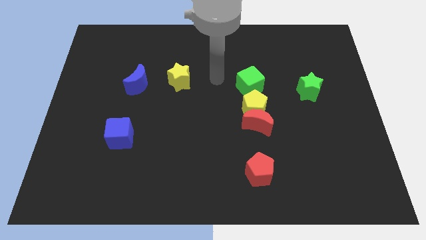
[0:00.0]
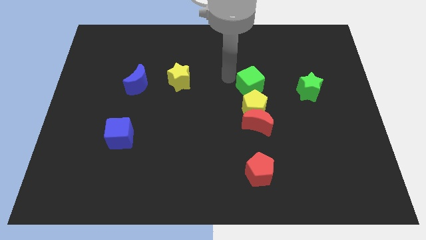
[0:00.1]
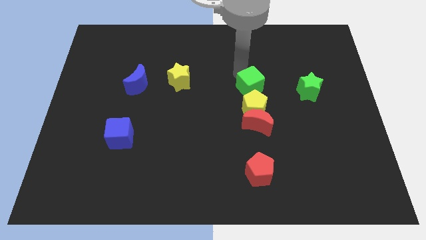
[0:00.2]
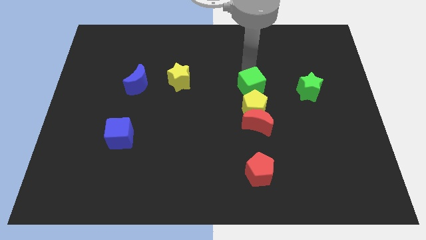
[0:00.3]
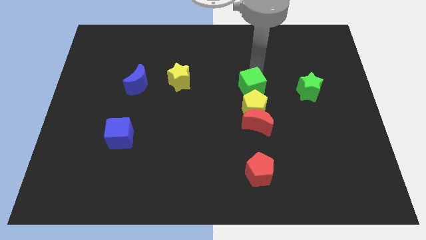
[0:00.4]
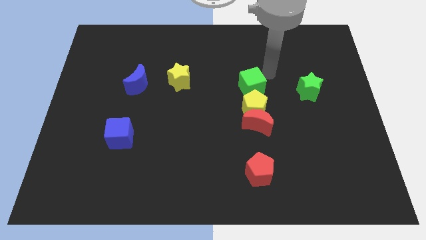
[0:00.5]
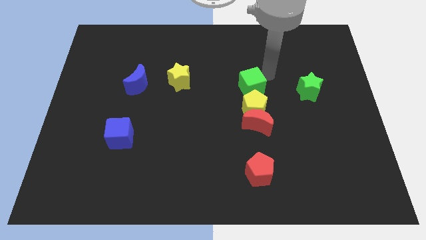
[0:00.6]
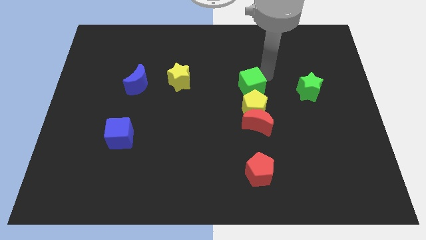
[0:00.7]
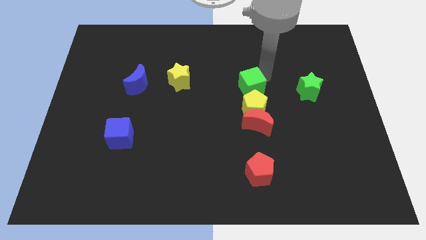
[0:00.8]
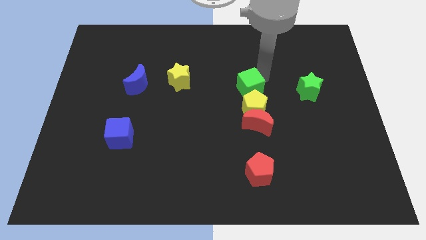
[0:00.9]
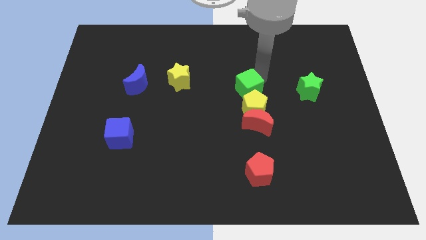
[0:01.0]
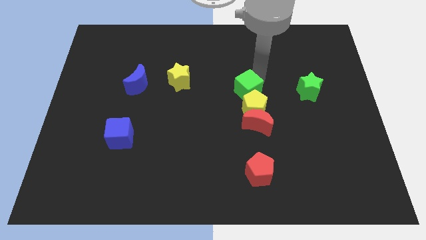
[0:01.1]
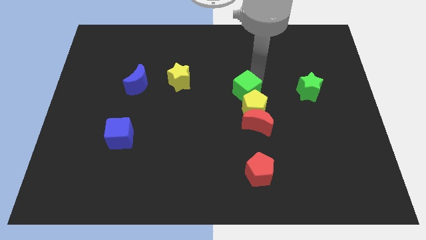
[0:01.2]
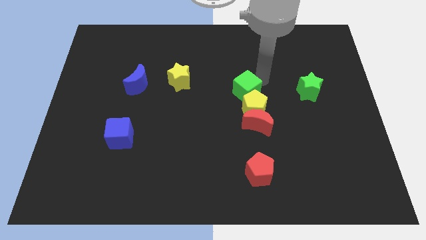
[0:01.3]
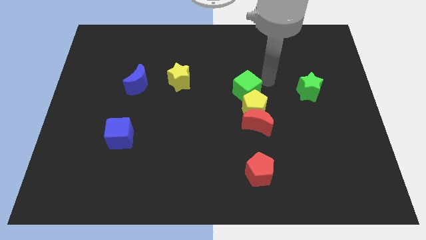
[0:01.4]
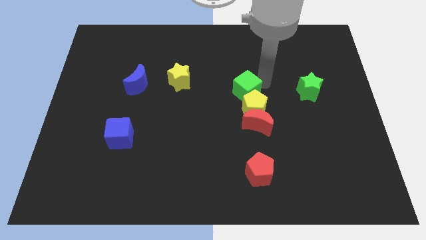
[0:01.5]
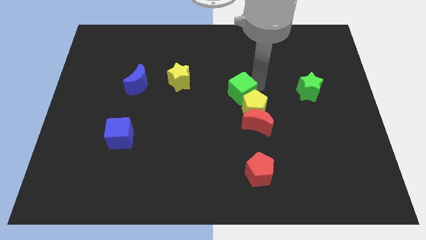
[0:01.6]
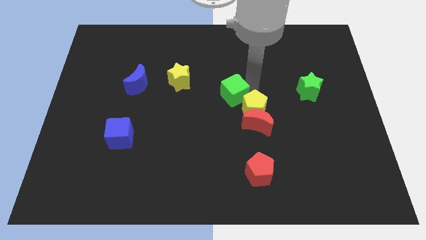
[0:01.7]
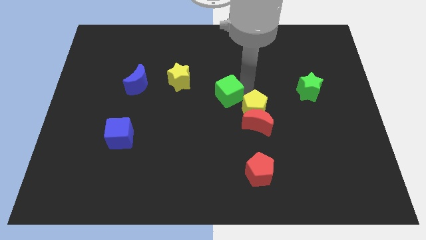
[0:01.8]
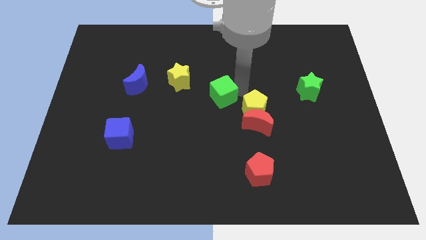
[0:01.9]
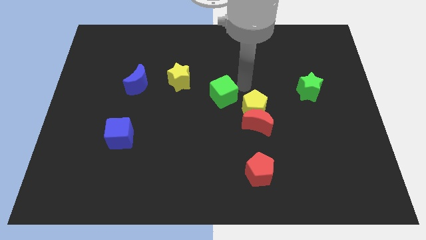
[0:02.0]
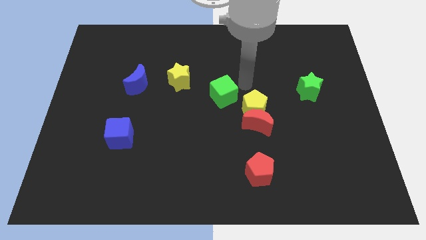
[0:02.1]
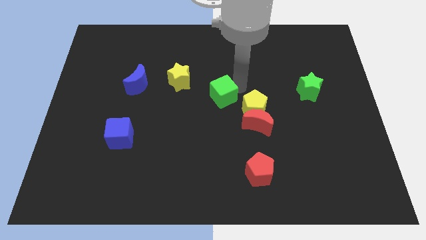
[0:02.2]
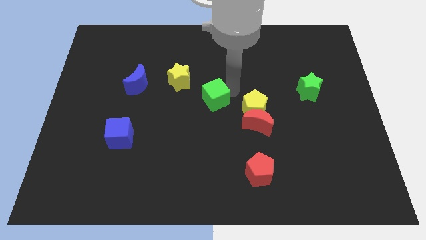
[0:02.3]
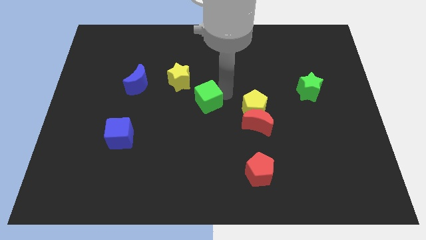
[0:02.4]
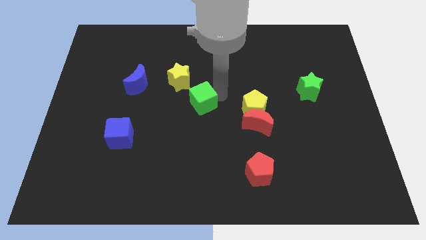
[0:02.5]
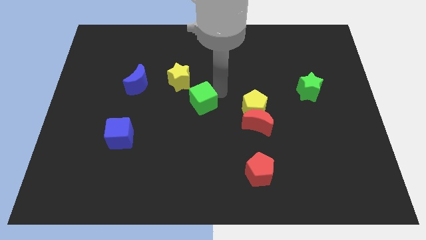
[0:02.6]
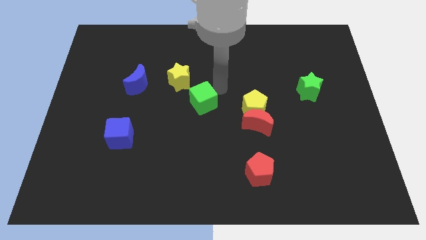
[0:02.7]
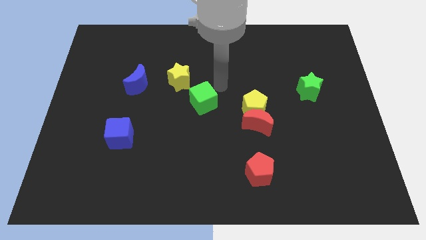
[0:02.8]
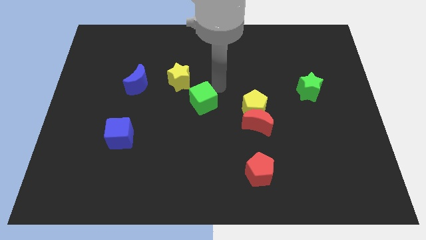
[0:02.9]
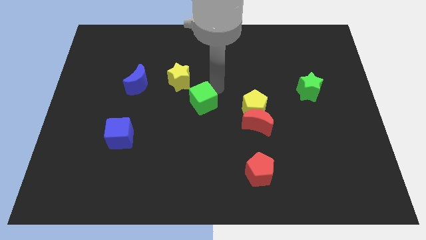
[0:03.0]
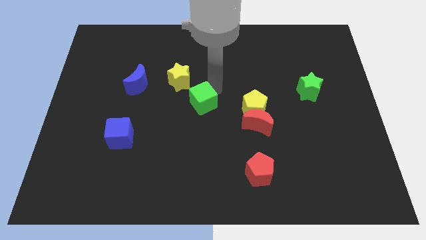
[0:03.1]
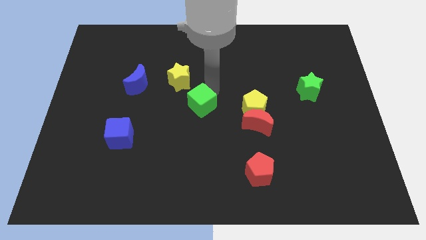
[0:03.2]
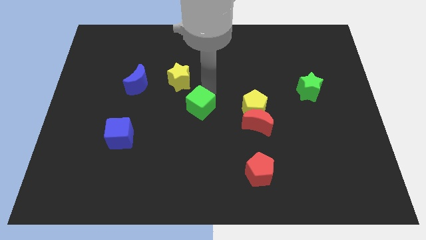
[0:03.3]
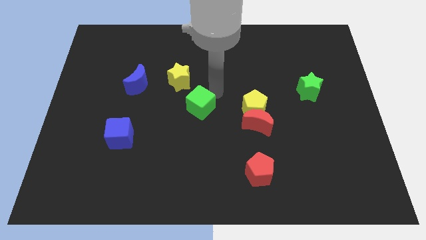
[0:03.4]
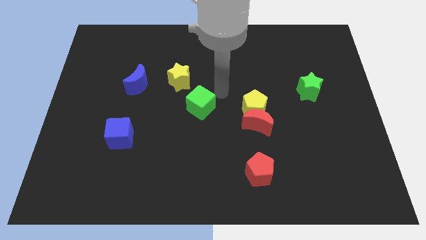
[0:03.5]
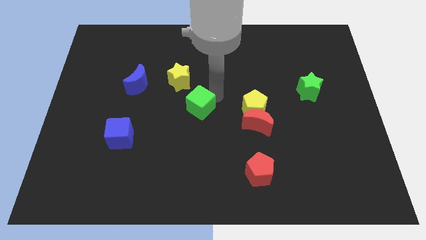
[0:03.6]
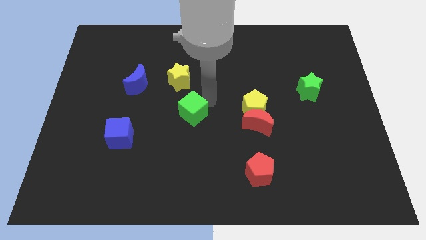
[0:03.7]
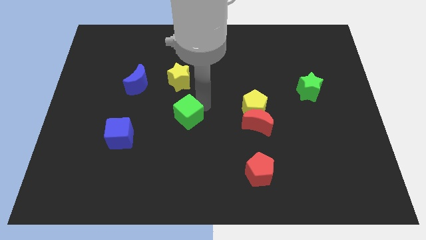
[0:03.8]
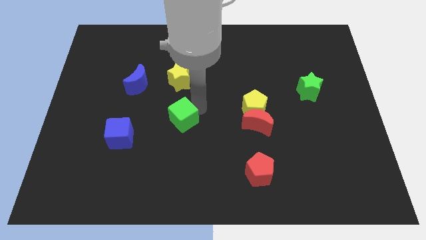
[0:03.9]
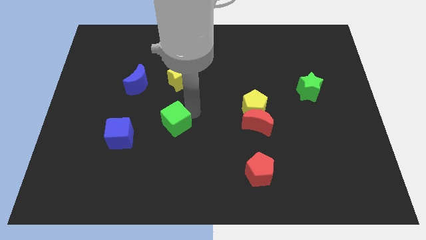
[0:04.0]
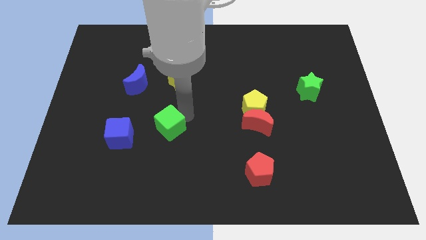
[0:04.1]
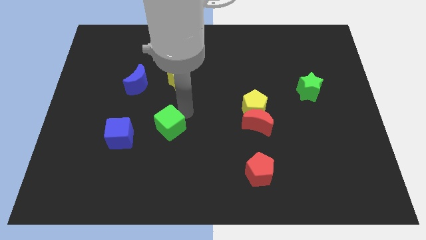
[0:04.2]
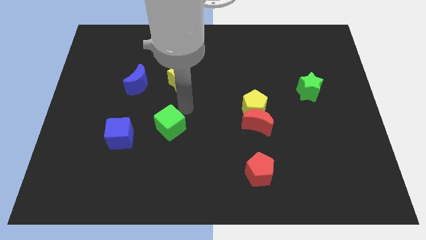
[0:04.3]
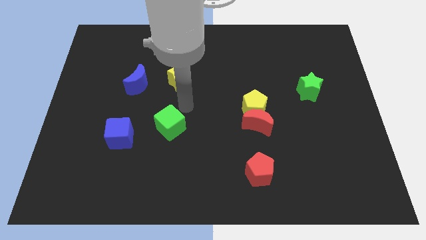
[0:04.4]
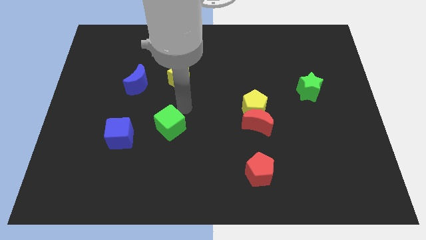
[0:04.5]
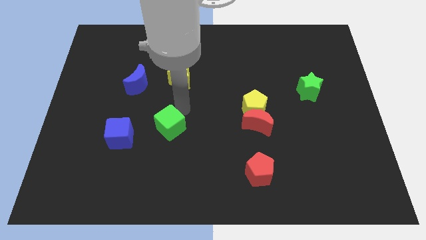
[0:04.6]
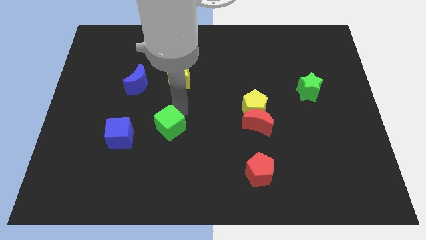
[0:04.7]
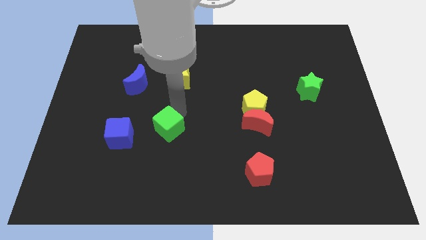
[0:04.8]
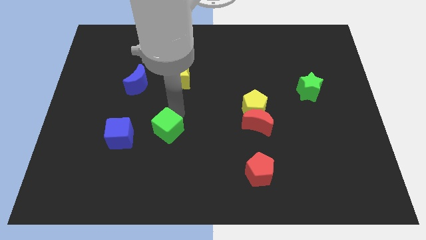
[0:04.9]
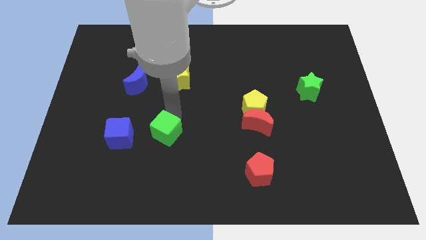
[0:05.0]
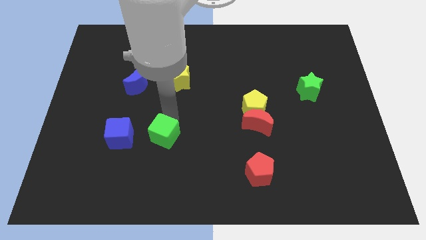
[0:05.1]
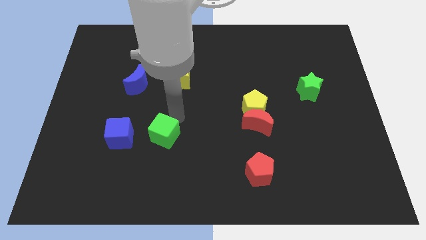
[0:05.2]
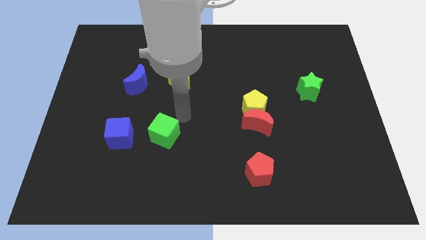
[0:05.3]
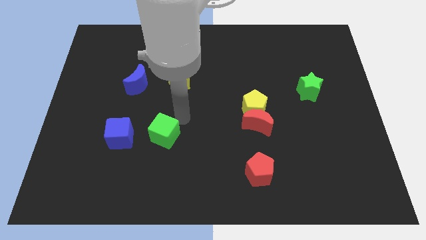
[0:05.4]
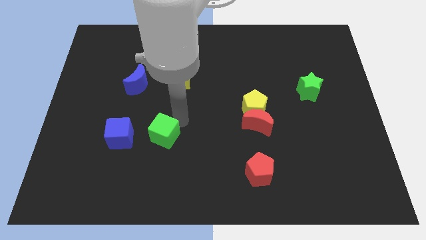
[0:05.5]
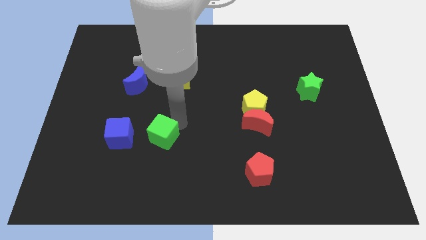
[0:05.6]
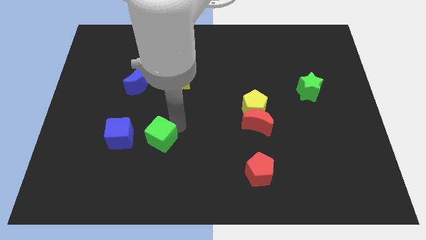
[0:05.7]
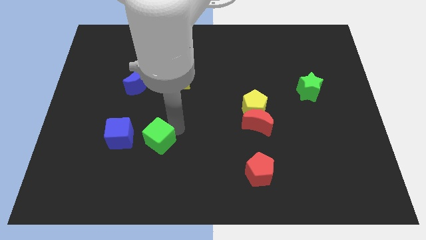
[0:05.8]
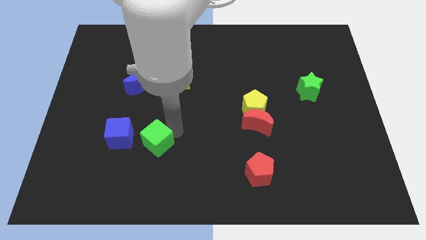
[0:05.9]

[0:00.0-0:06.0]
push the green cube to the bottom right side of the blue cube

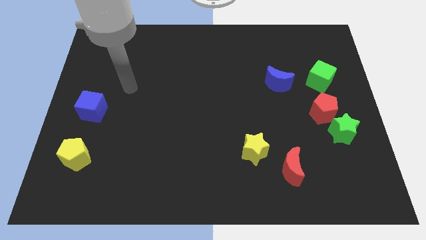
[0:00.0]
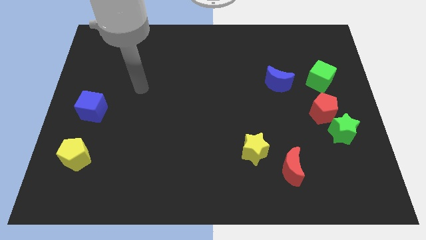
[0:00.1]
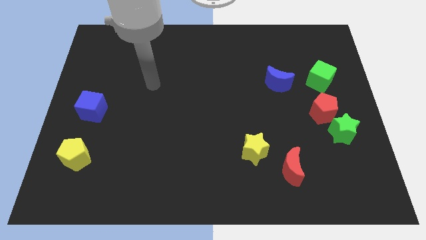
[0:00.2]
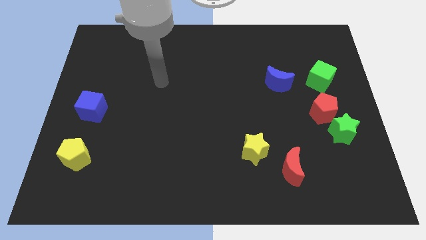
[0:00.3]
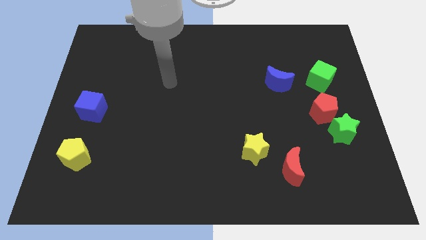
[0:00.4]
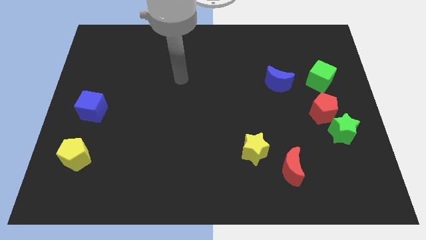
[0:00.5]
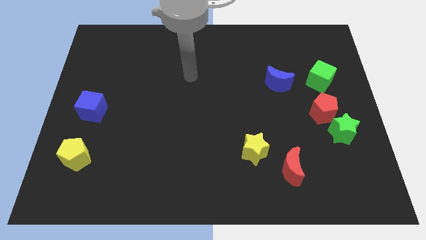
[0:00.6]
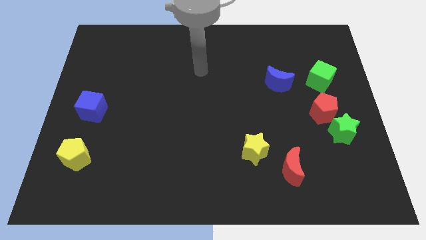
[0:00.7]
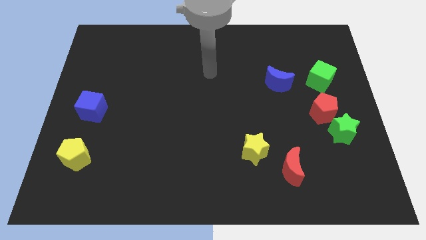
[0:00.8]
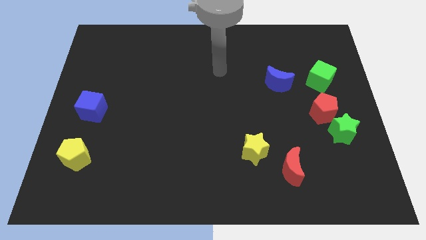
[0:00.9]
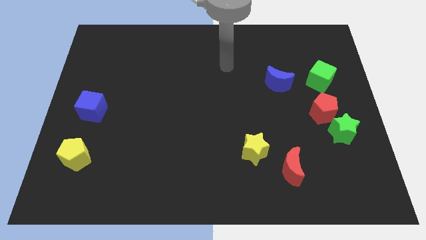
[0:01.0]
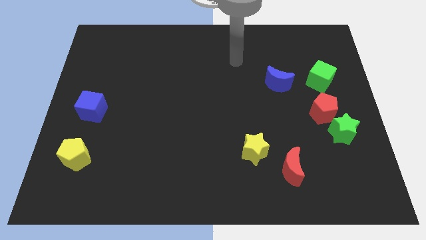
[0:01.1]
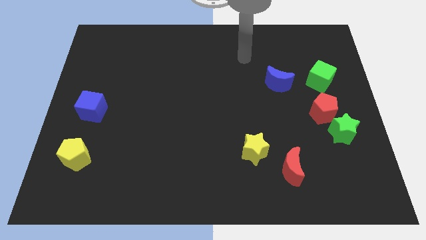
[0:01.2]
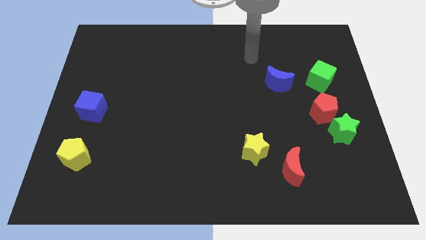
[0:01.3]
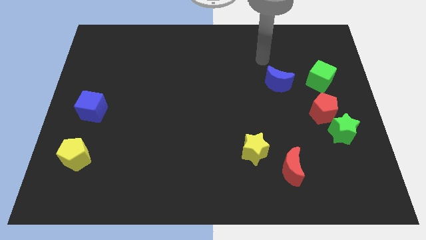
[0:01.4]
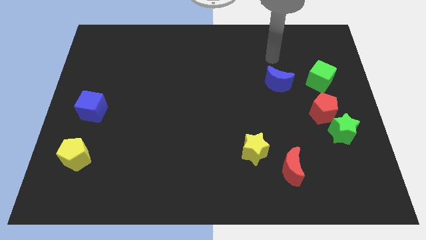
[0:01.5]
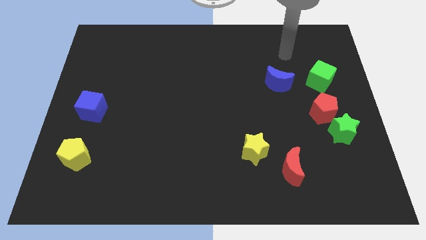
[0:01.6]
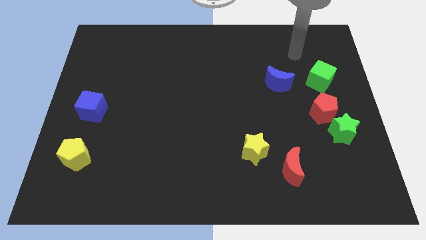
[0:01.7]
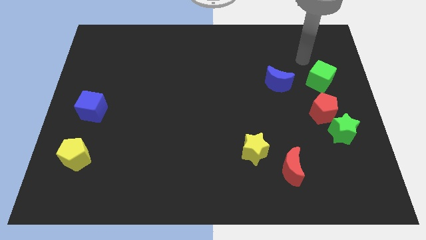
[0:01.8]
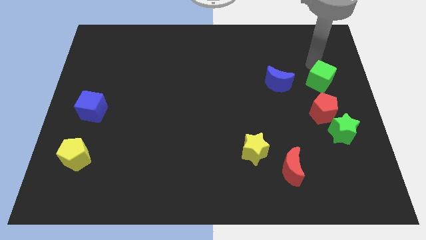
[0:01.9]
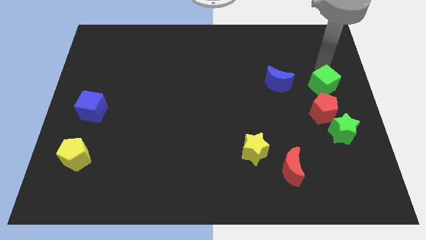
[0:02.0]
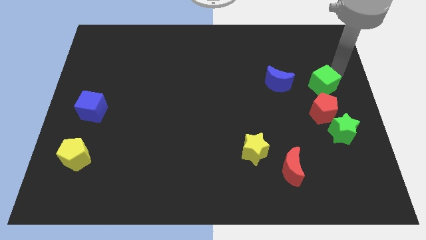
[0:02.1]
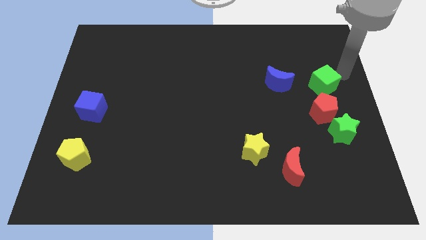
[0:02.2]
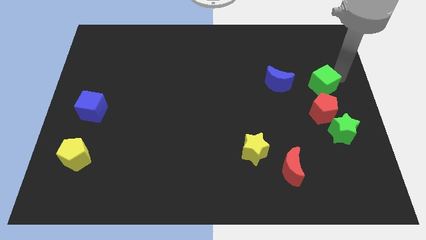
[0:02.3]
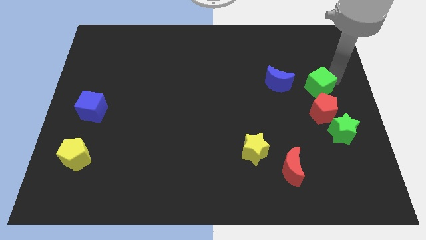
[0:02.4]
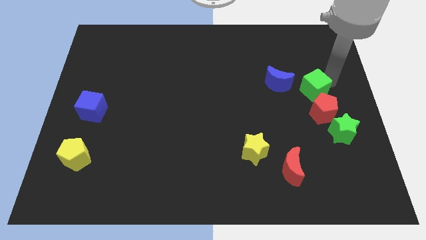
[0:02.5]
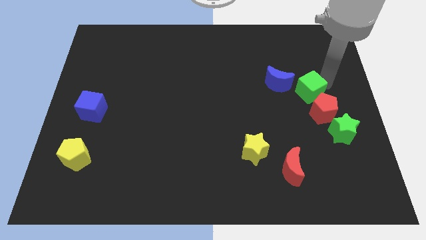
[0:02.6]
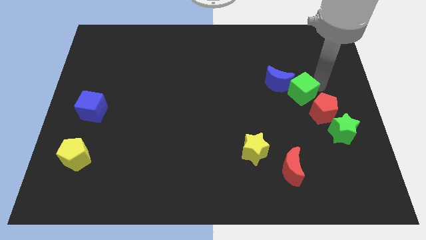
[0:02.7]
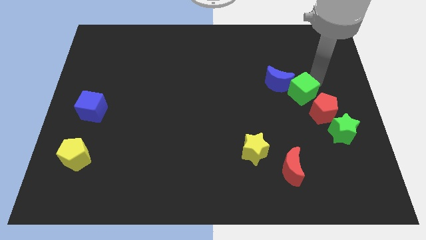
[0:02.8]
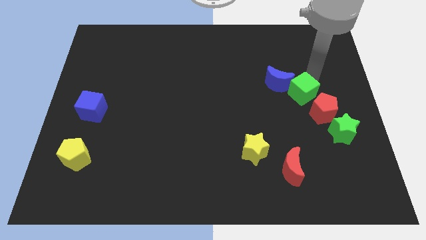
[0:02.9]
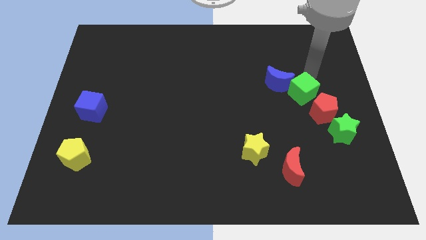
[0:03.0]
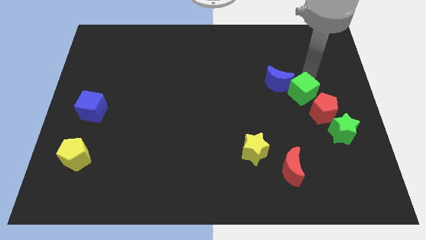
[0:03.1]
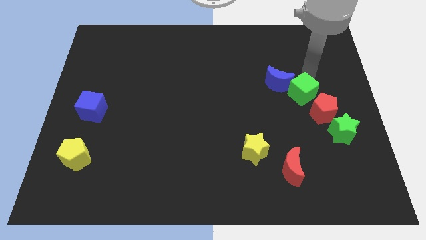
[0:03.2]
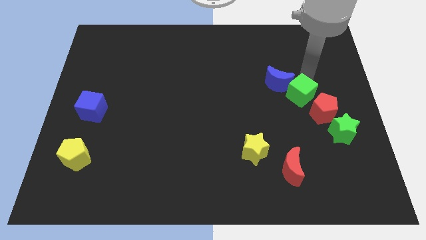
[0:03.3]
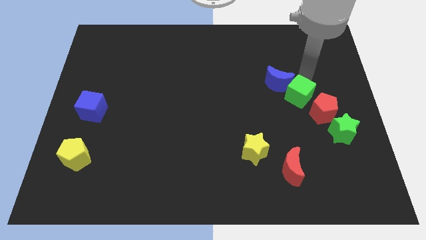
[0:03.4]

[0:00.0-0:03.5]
put the green cube to the bottom of the blue moon
